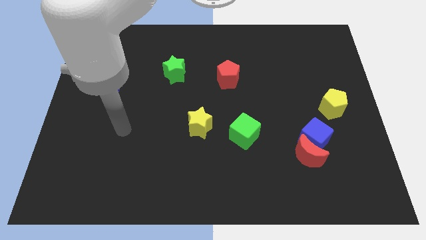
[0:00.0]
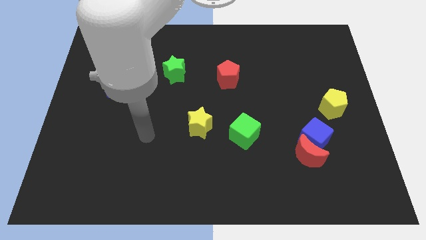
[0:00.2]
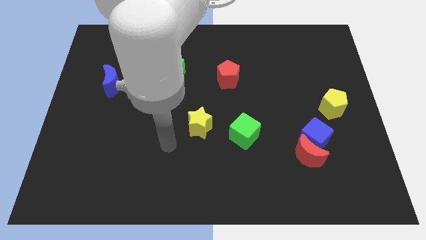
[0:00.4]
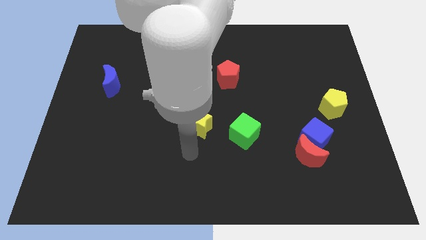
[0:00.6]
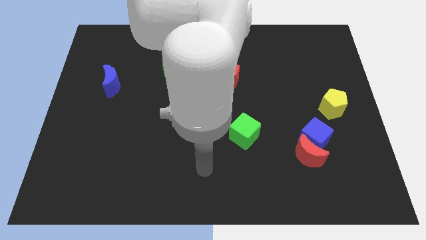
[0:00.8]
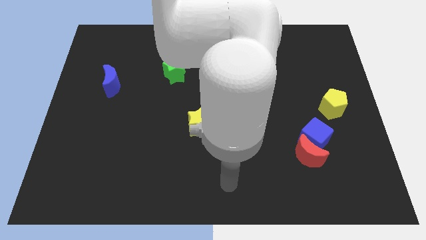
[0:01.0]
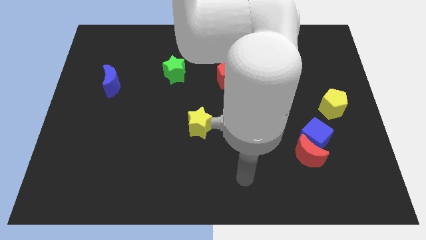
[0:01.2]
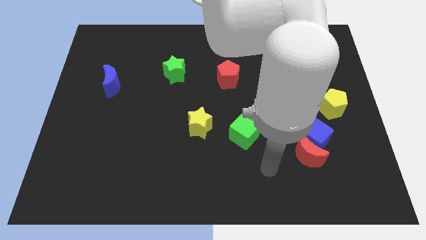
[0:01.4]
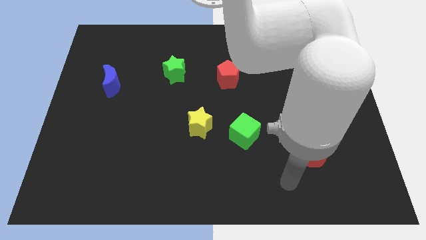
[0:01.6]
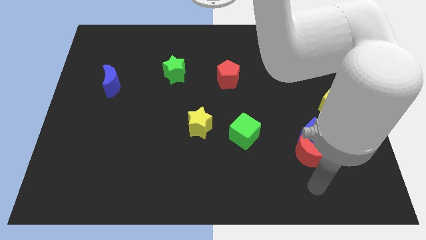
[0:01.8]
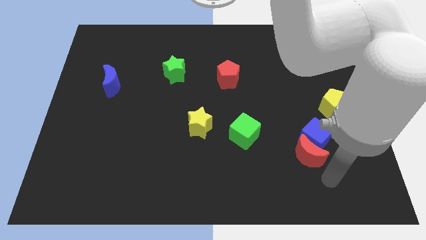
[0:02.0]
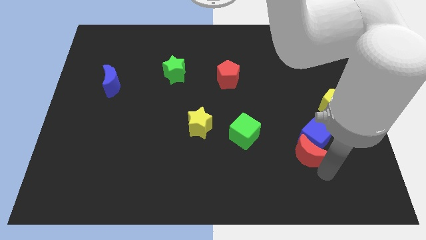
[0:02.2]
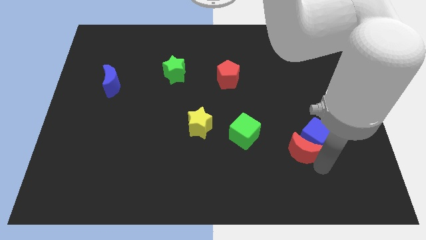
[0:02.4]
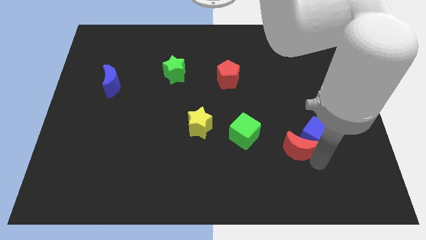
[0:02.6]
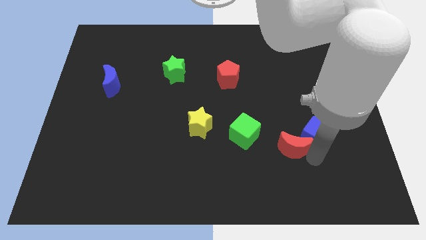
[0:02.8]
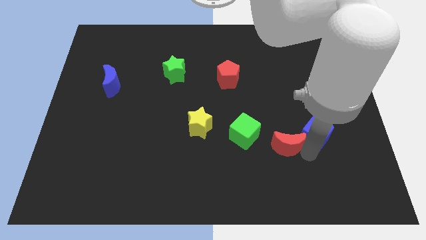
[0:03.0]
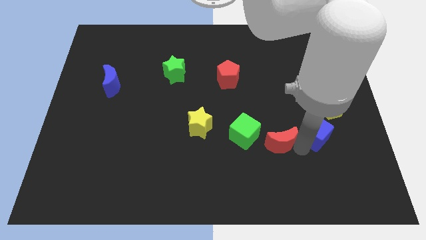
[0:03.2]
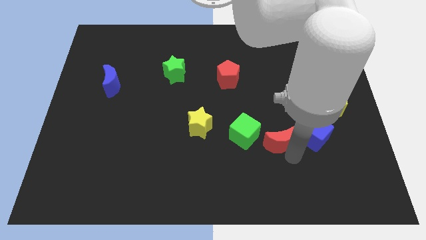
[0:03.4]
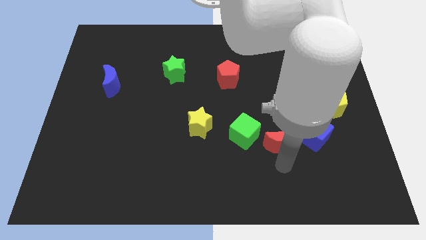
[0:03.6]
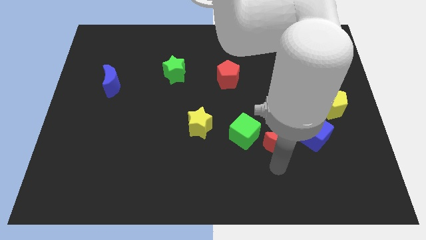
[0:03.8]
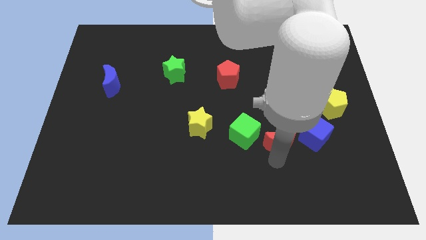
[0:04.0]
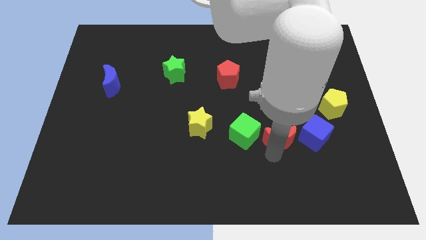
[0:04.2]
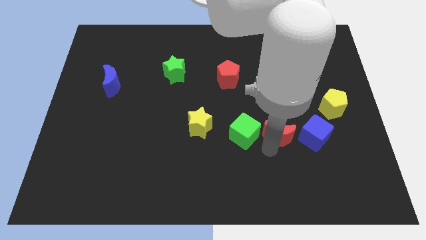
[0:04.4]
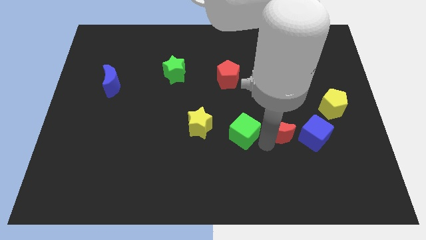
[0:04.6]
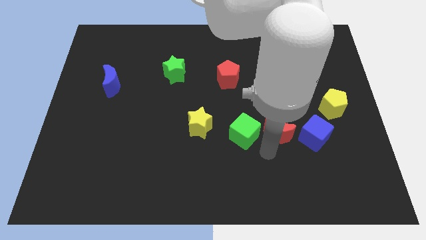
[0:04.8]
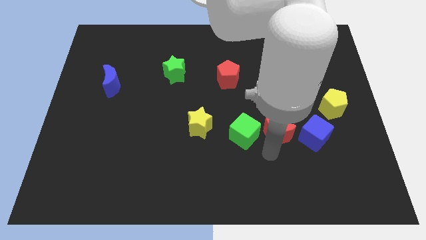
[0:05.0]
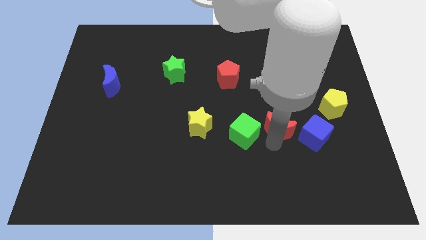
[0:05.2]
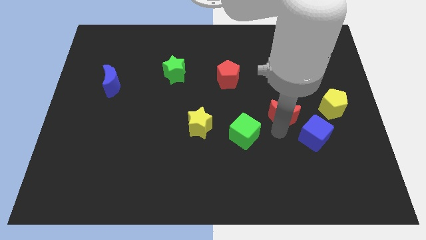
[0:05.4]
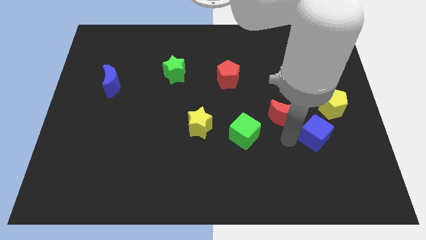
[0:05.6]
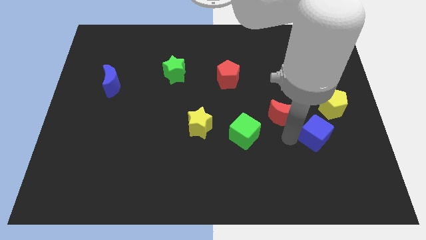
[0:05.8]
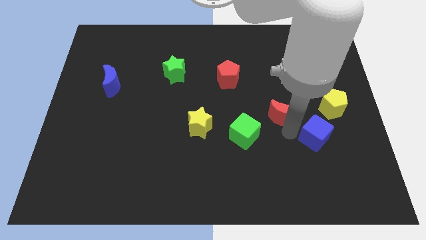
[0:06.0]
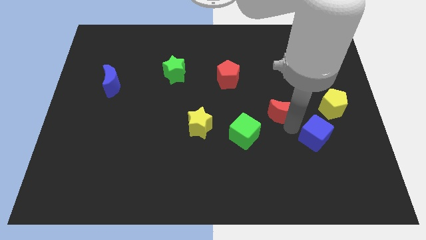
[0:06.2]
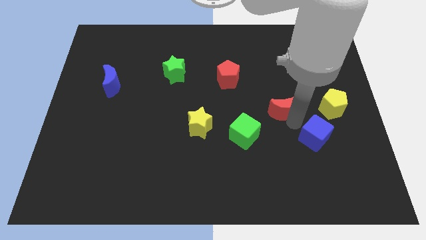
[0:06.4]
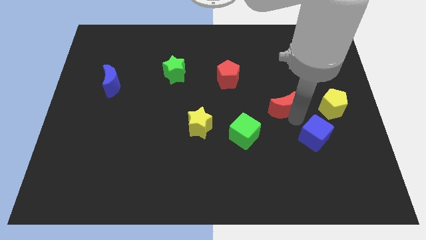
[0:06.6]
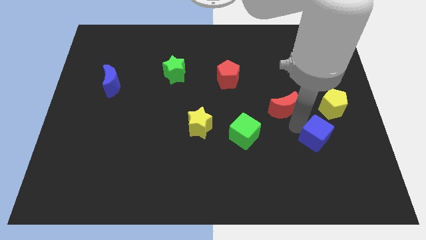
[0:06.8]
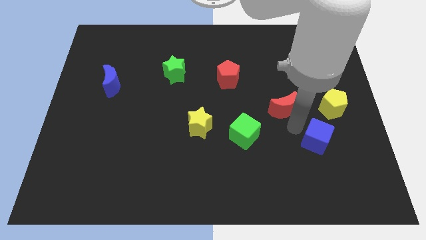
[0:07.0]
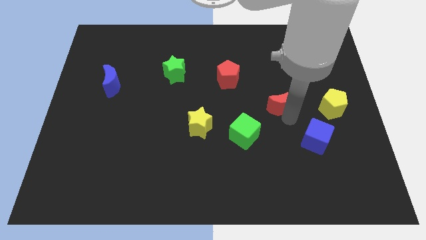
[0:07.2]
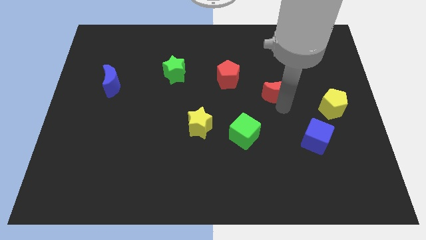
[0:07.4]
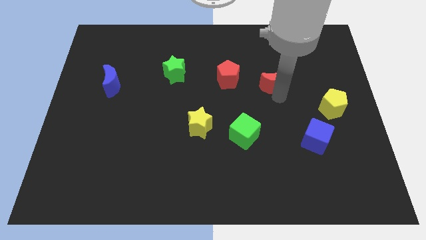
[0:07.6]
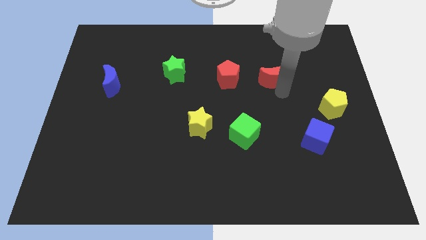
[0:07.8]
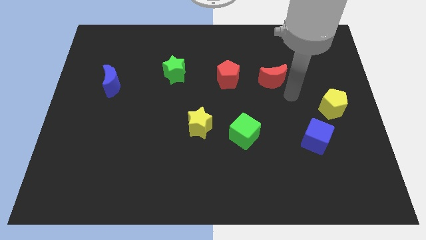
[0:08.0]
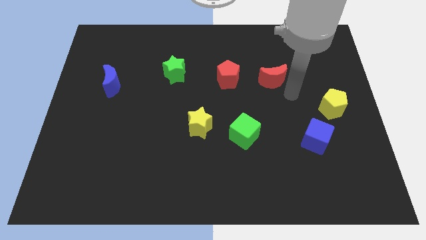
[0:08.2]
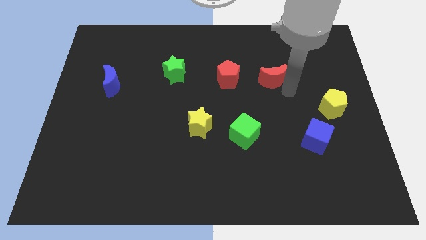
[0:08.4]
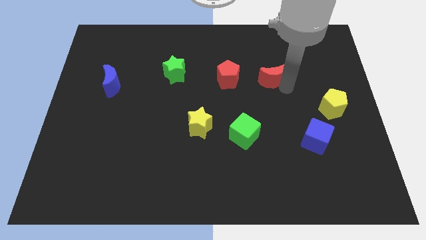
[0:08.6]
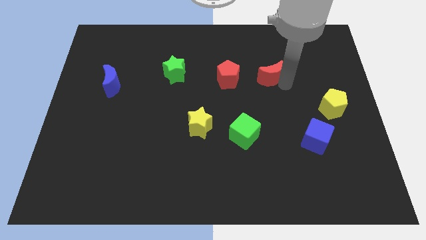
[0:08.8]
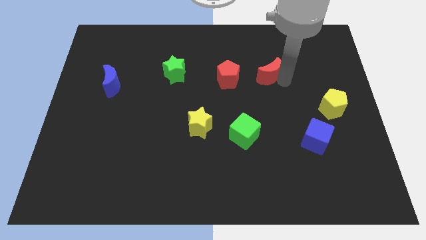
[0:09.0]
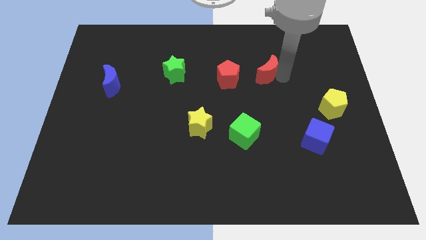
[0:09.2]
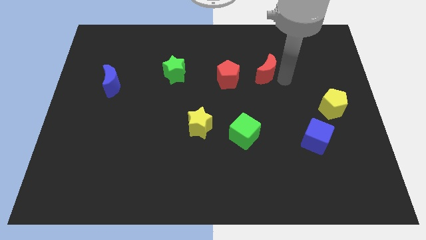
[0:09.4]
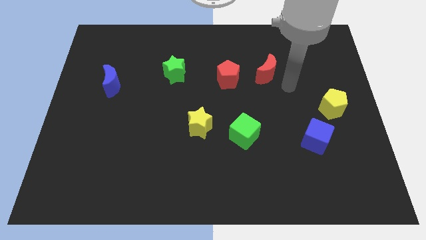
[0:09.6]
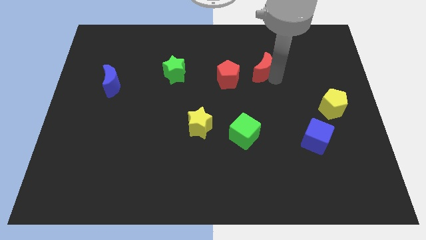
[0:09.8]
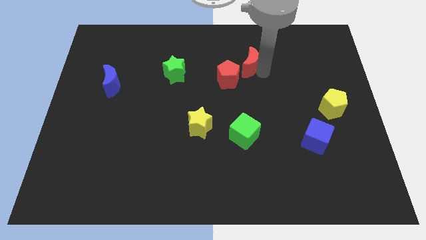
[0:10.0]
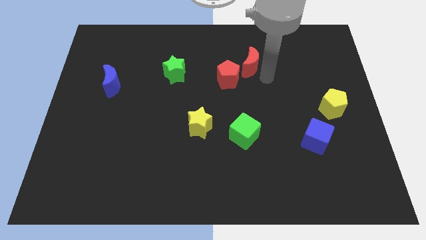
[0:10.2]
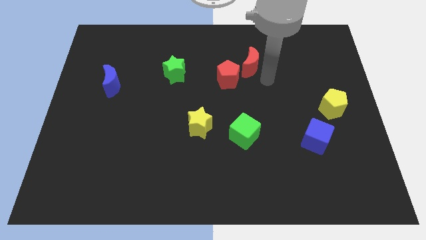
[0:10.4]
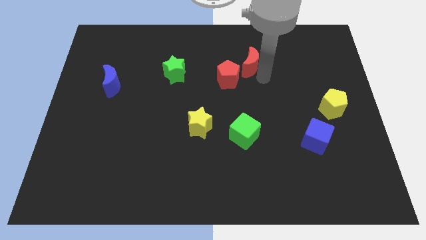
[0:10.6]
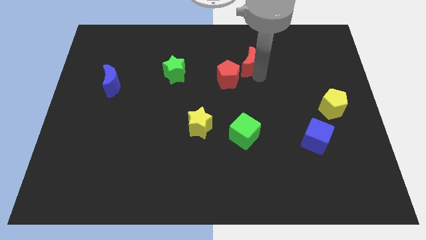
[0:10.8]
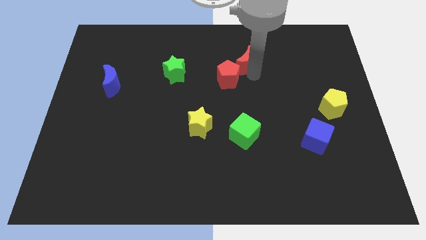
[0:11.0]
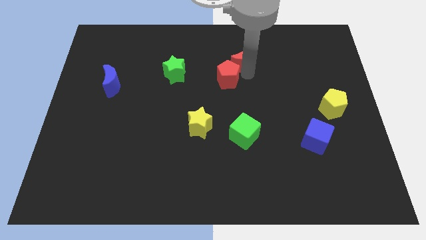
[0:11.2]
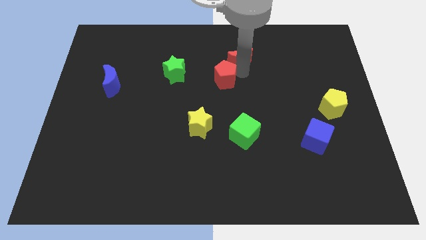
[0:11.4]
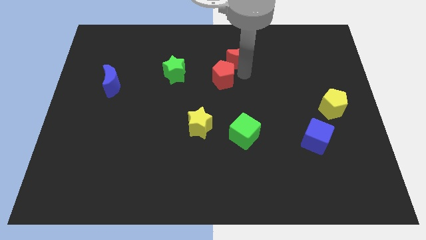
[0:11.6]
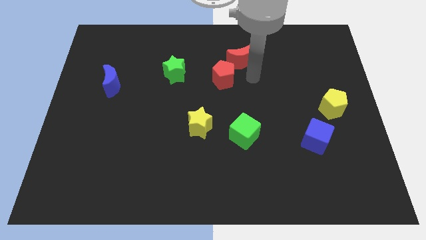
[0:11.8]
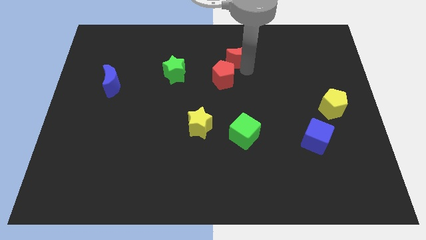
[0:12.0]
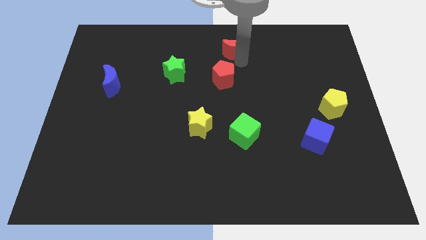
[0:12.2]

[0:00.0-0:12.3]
move the red moon to the top
